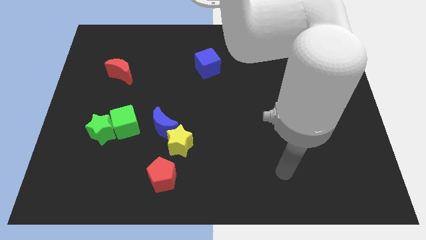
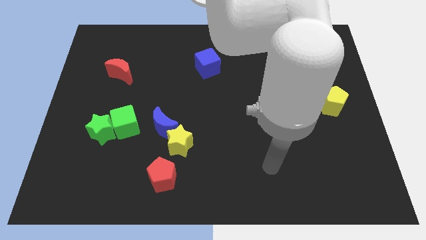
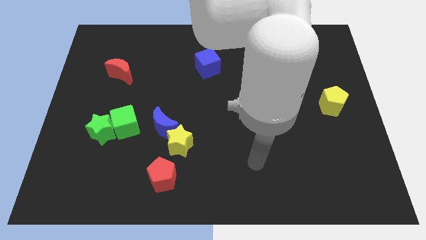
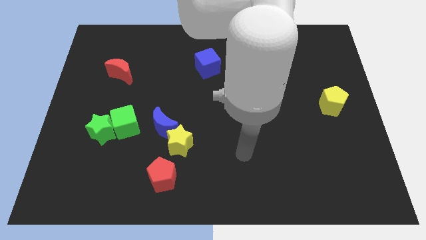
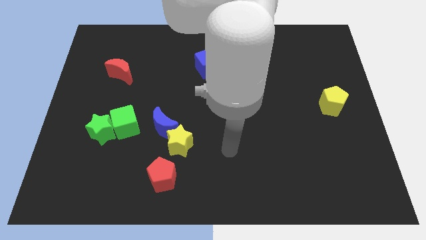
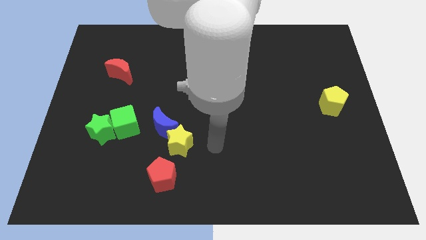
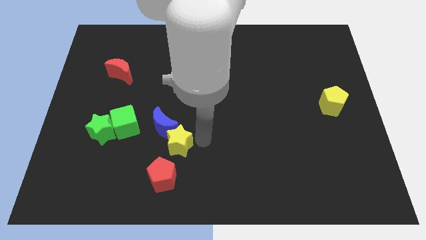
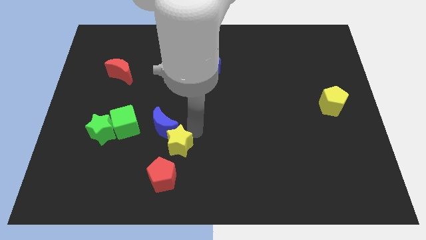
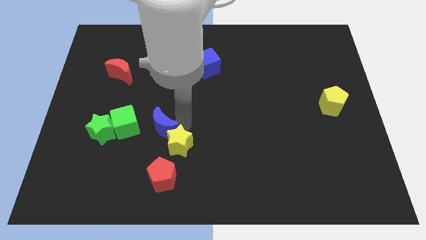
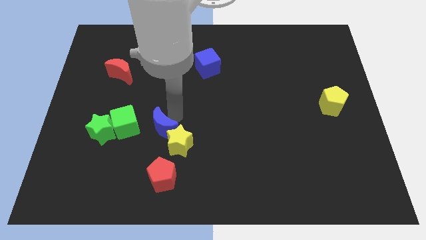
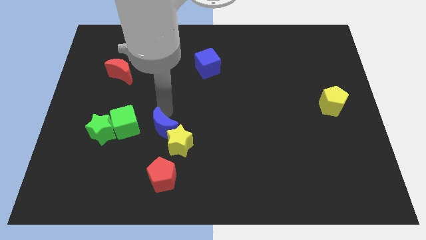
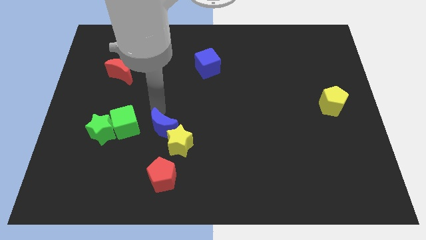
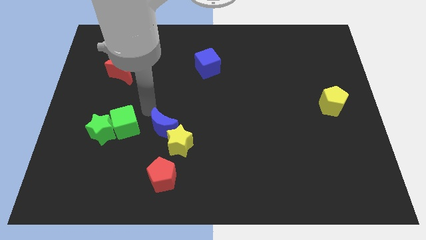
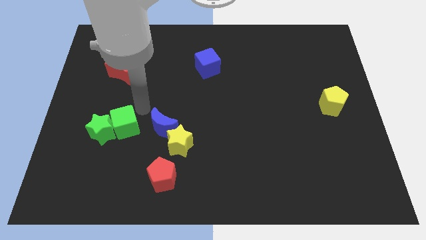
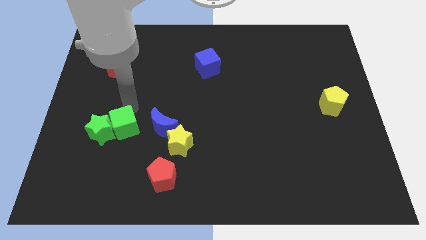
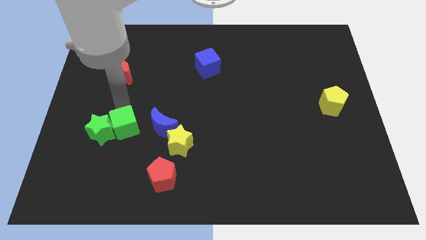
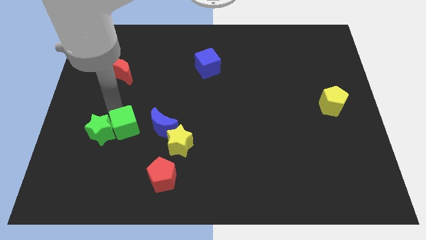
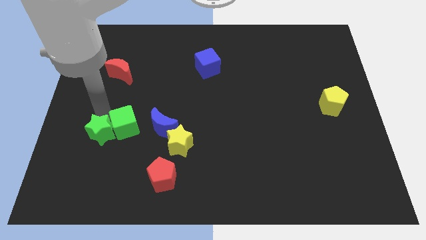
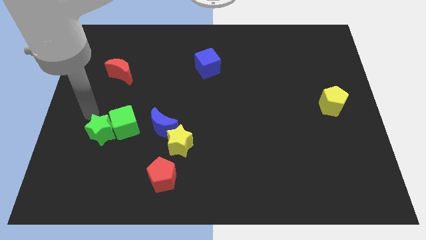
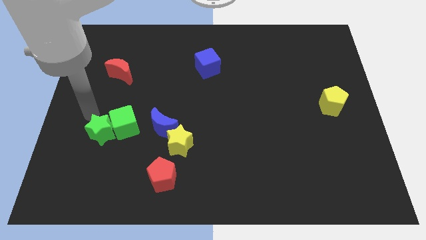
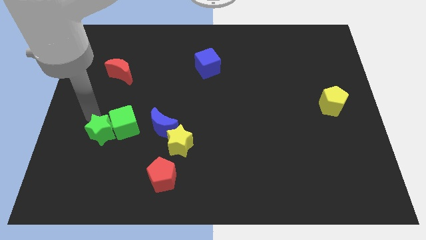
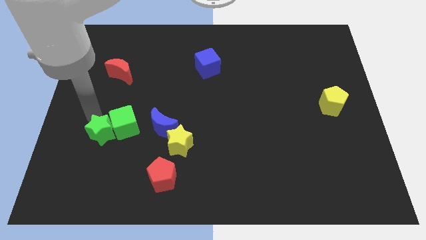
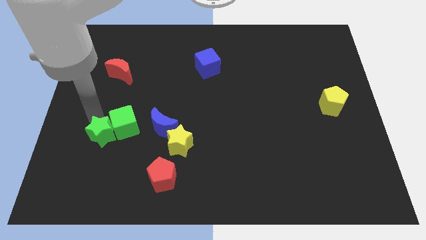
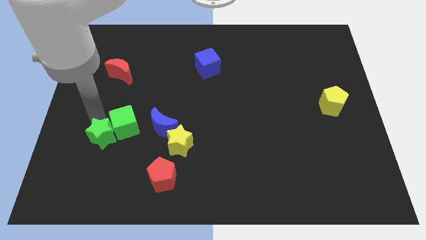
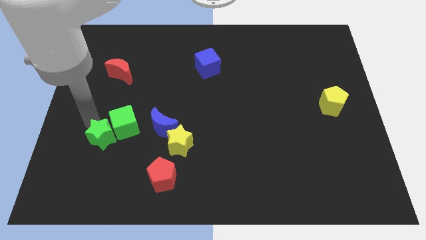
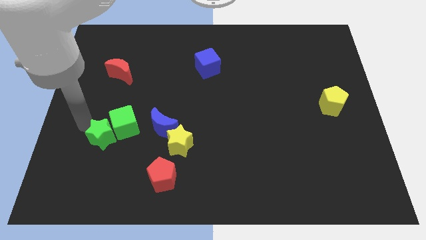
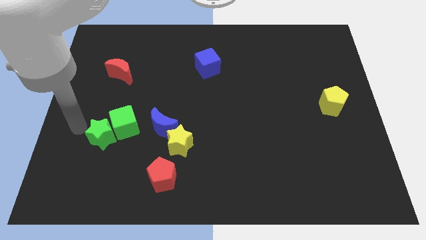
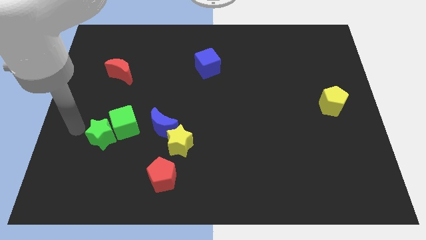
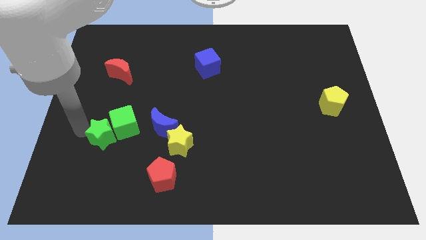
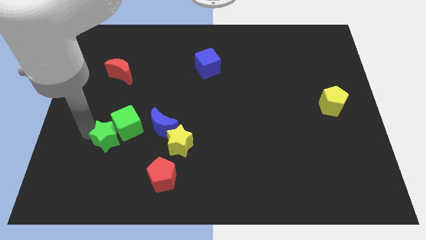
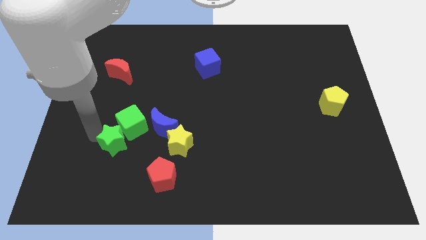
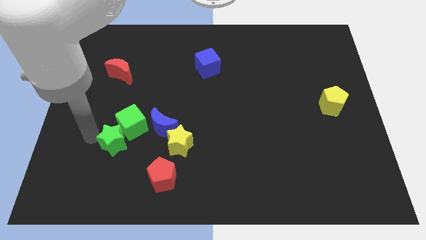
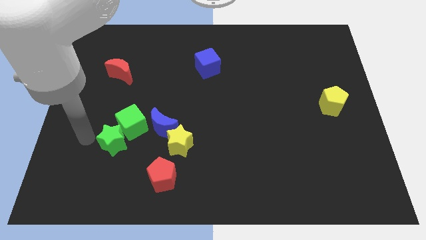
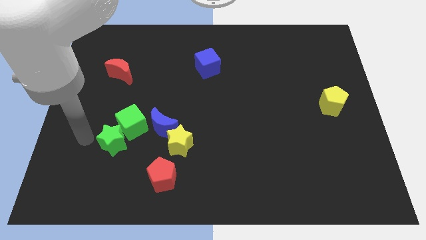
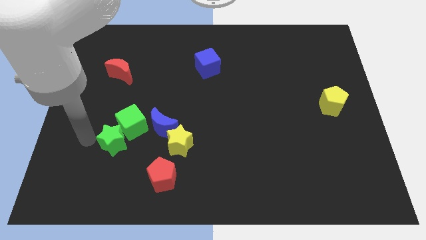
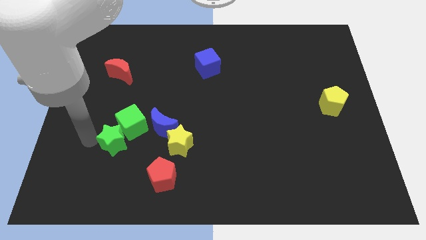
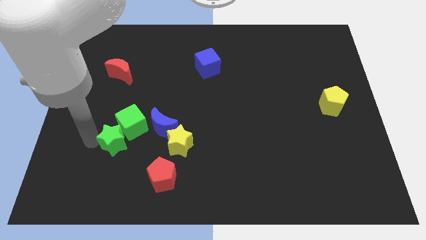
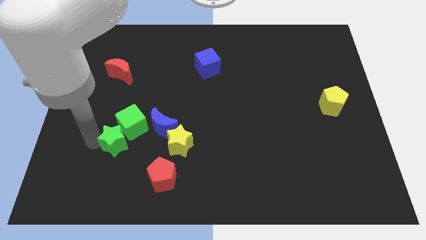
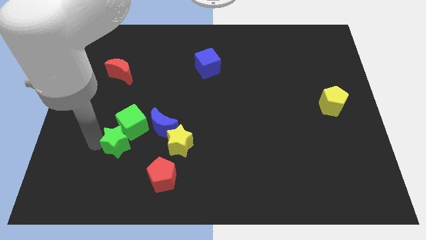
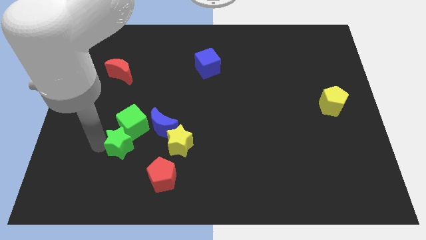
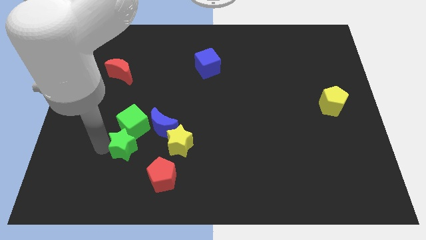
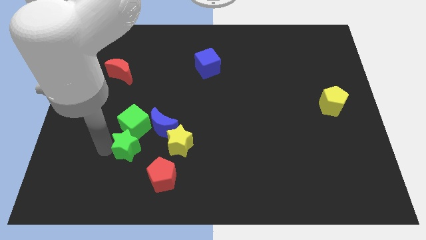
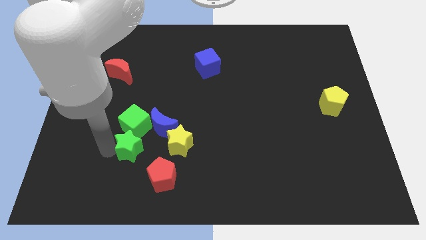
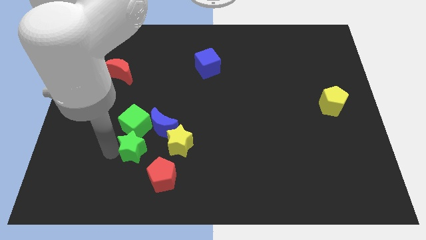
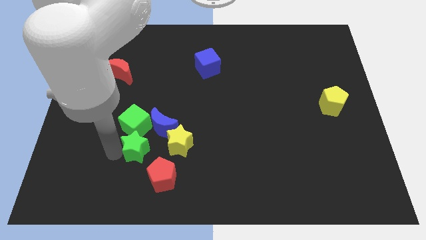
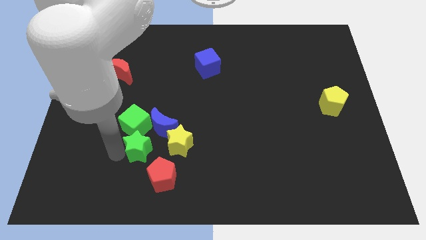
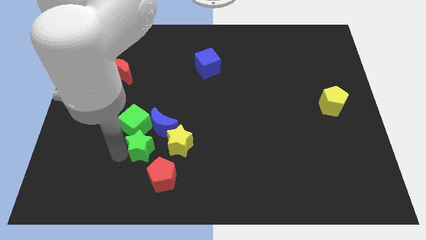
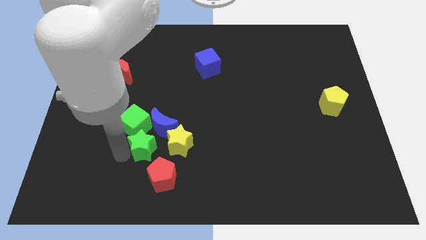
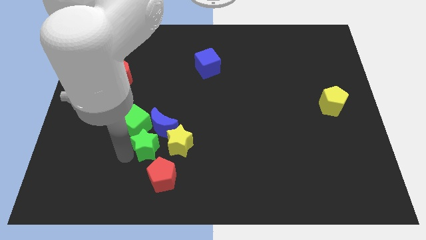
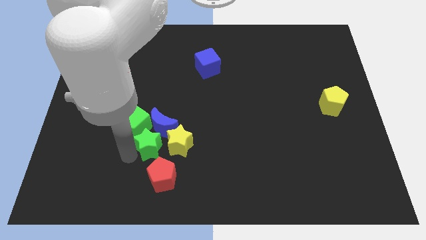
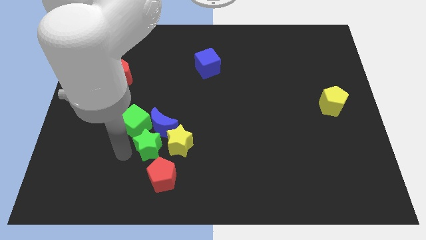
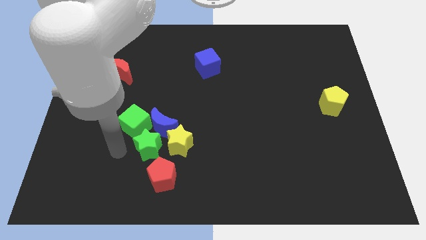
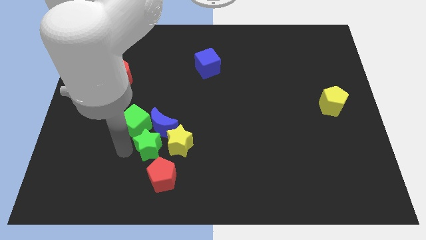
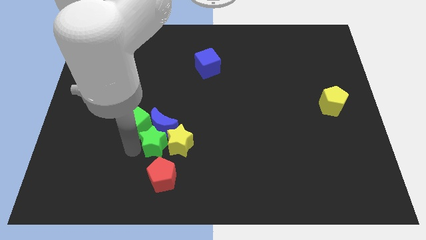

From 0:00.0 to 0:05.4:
move the green star next to the yellow star

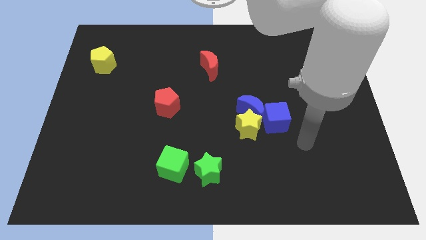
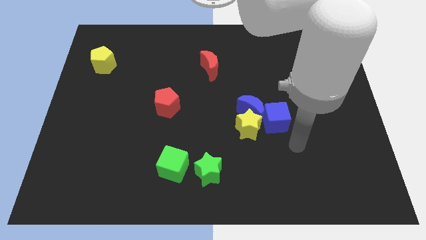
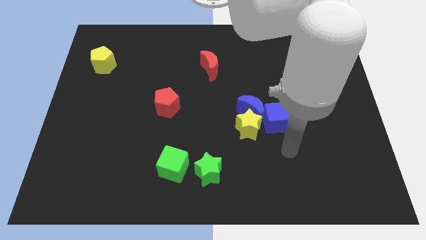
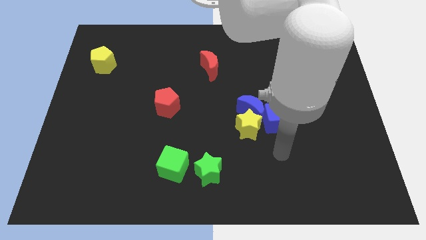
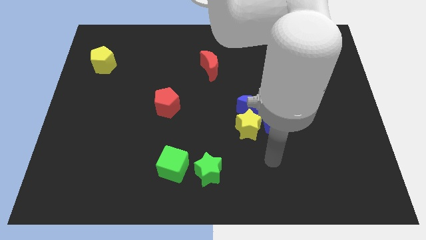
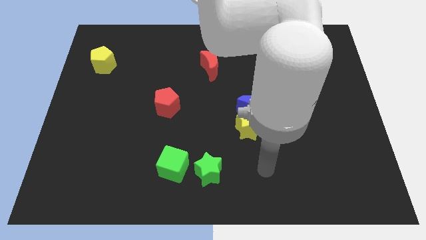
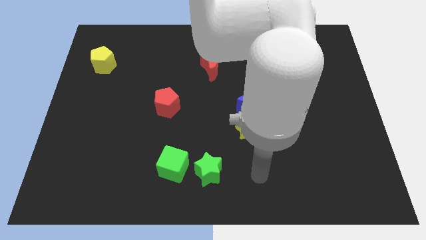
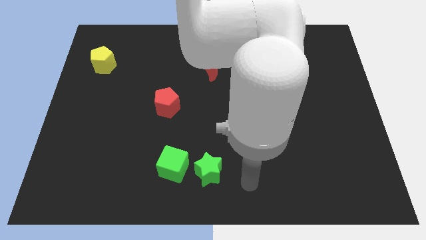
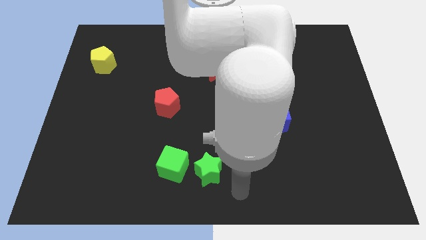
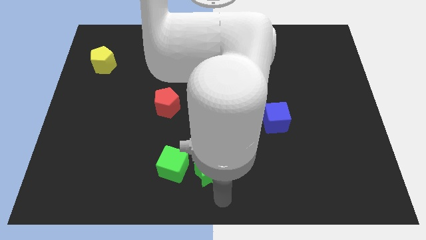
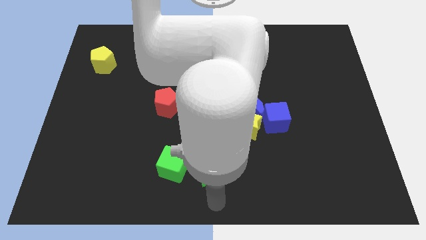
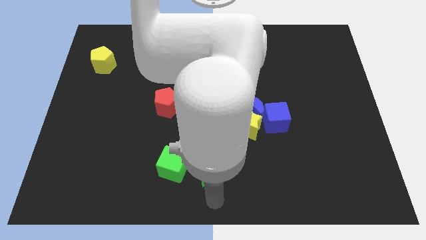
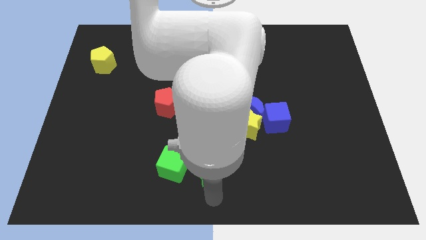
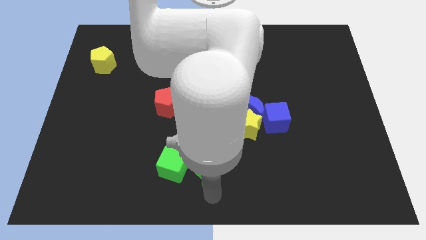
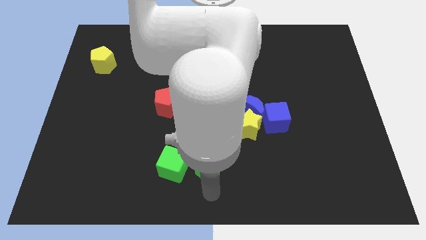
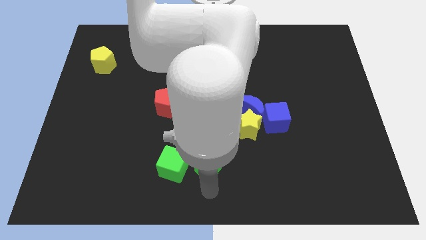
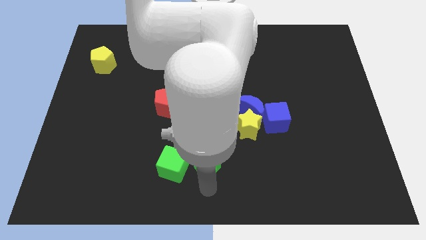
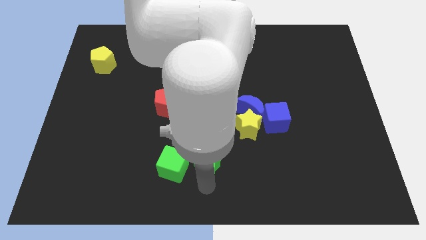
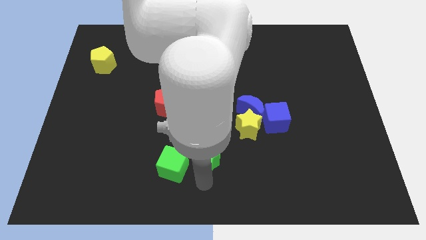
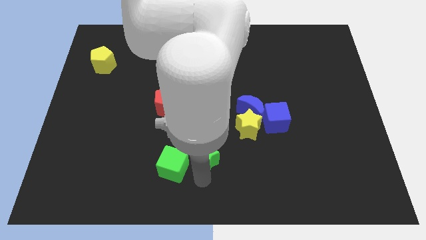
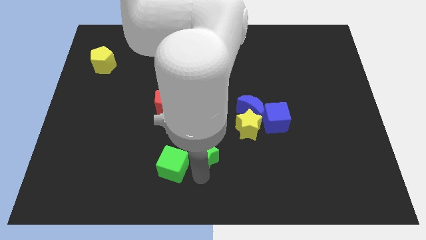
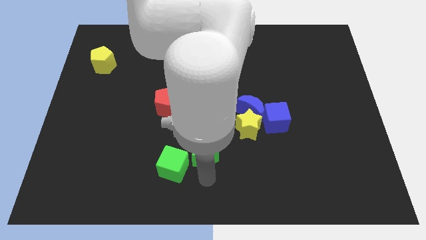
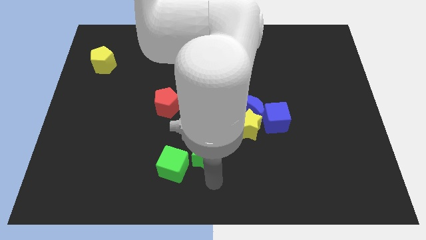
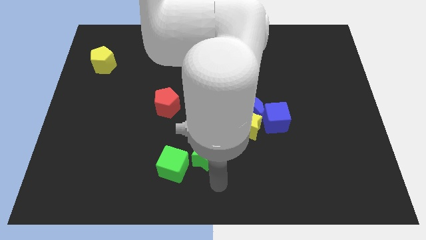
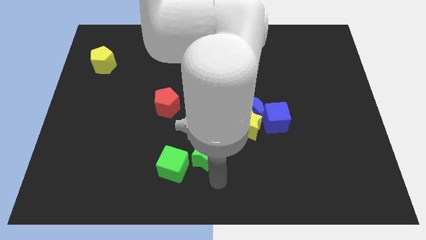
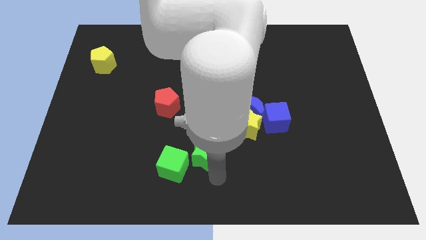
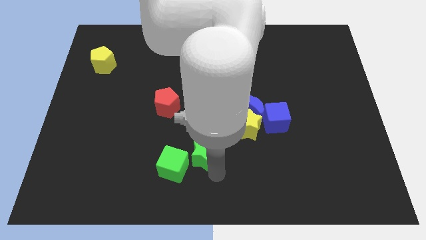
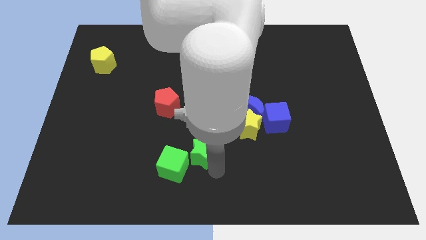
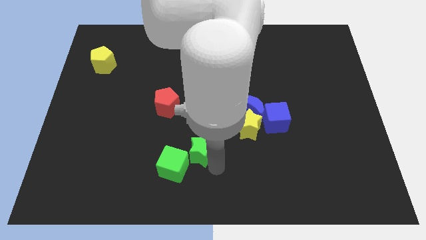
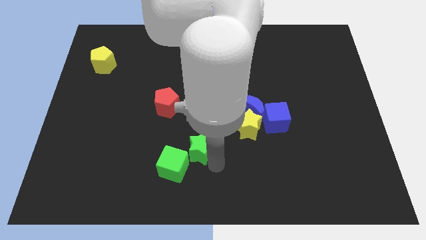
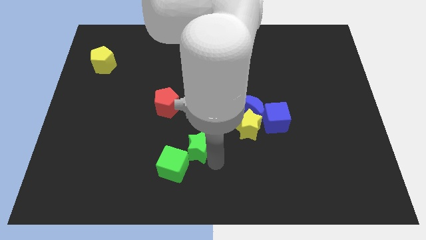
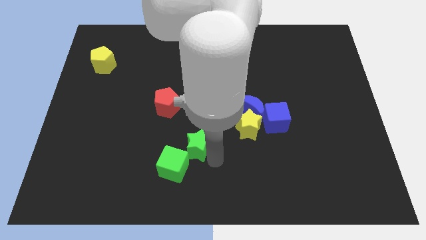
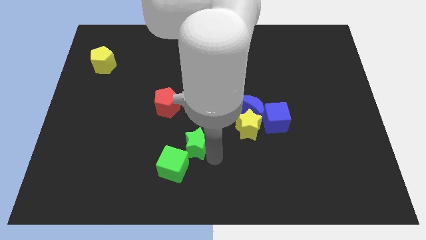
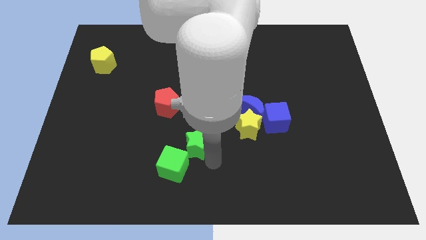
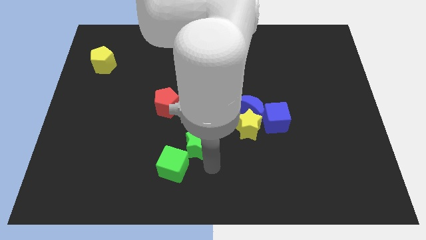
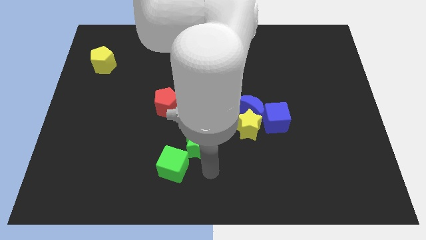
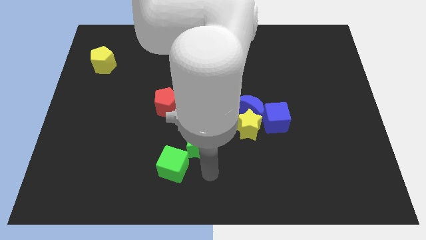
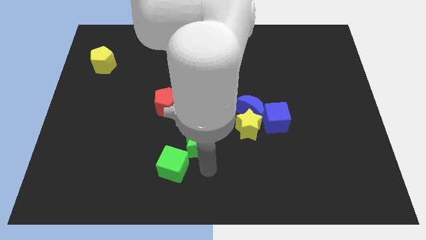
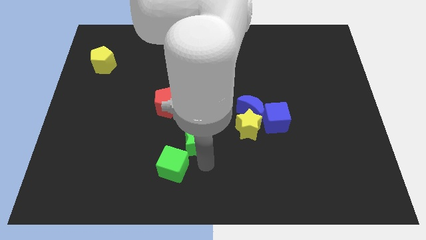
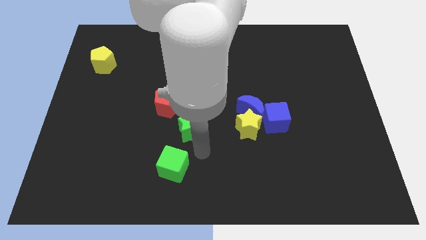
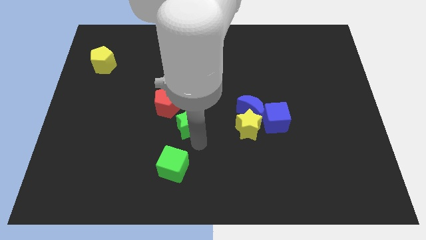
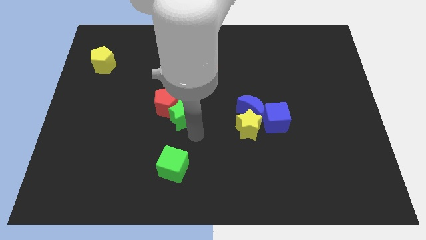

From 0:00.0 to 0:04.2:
slide the green star towards the red pentagon
